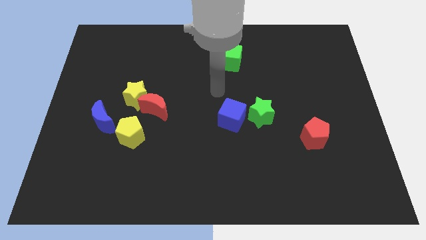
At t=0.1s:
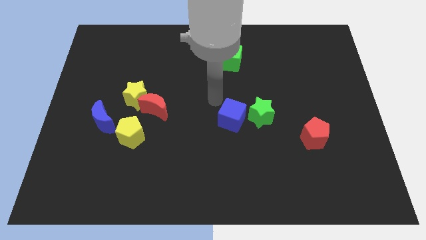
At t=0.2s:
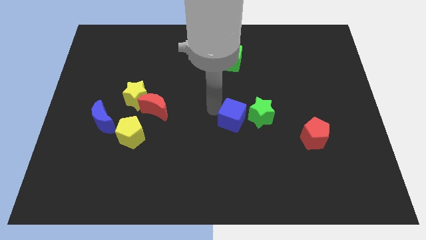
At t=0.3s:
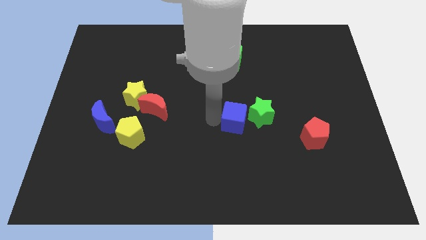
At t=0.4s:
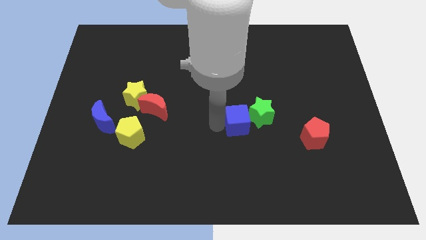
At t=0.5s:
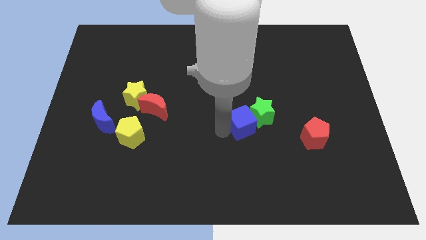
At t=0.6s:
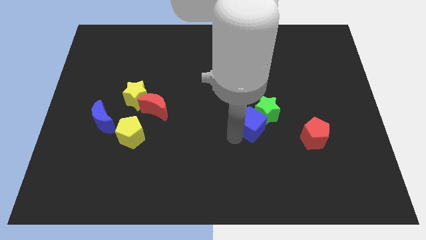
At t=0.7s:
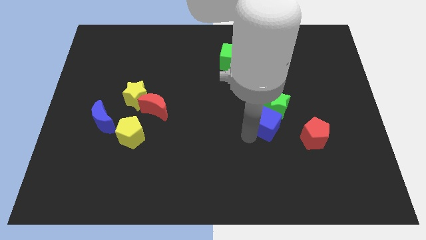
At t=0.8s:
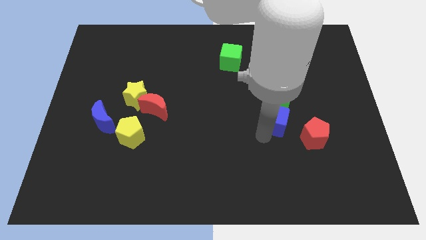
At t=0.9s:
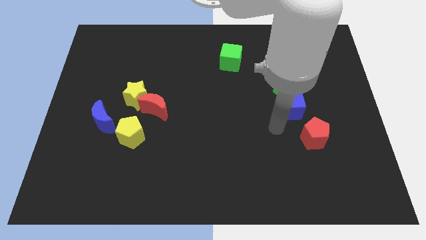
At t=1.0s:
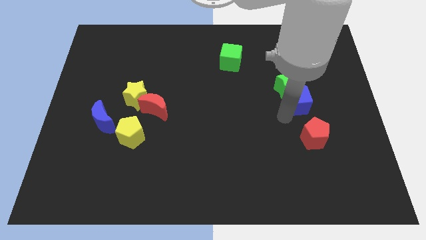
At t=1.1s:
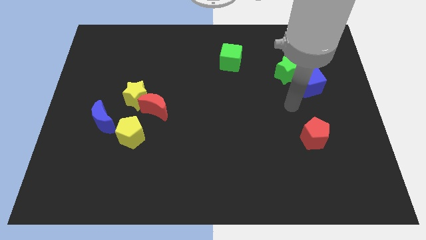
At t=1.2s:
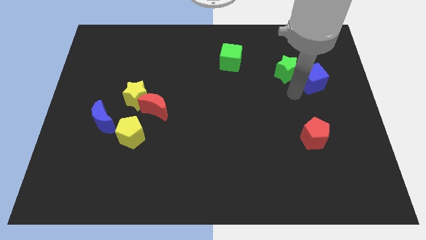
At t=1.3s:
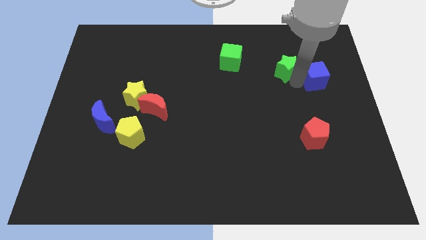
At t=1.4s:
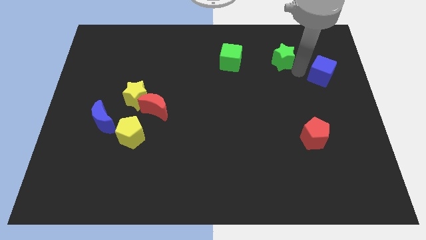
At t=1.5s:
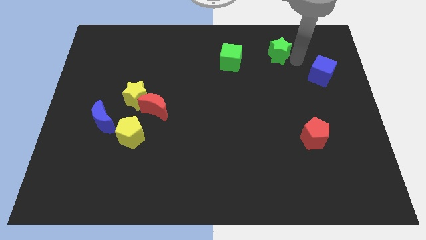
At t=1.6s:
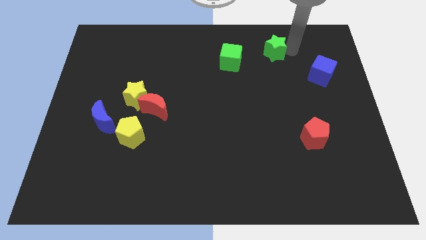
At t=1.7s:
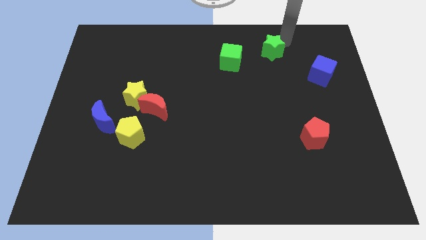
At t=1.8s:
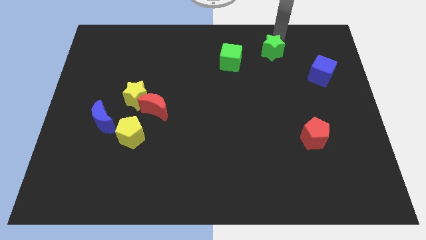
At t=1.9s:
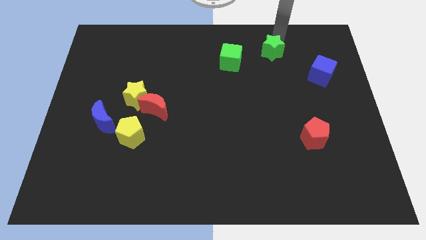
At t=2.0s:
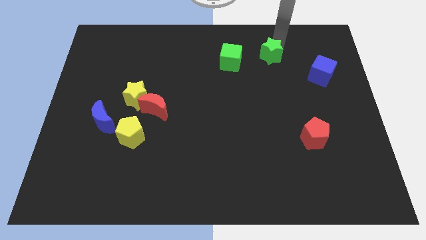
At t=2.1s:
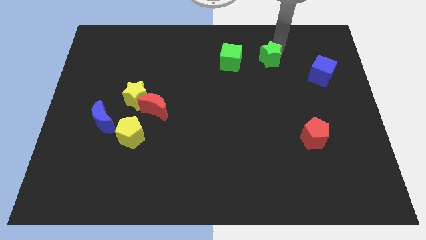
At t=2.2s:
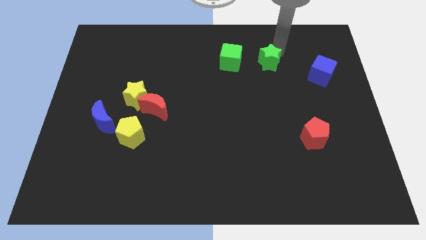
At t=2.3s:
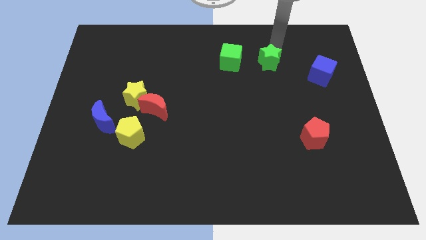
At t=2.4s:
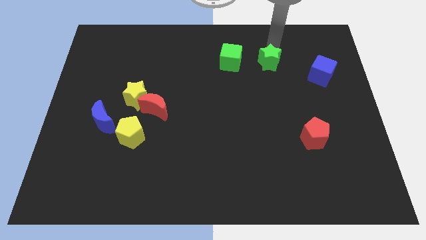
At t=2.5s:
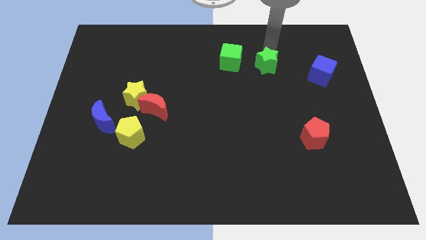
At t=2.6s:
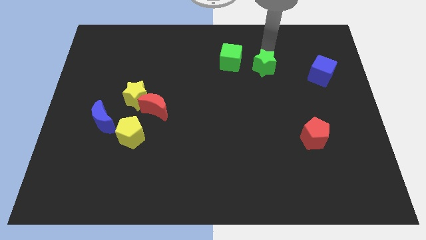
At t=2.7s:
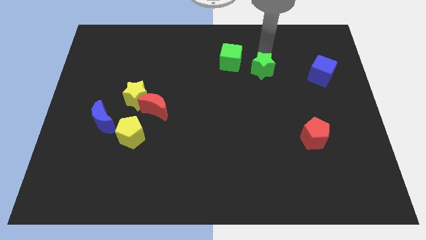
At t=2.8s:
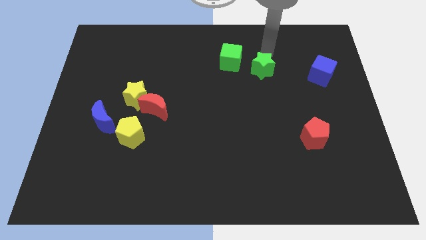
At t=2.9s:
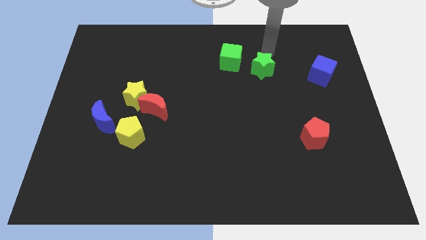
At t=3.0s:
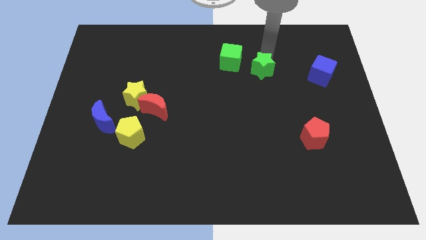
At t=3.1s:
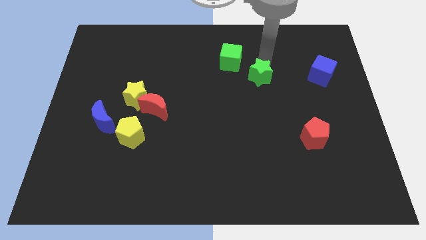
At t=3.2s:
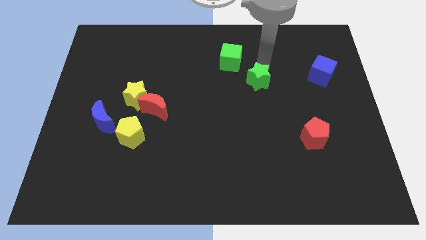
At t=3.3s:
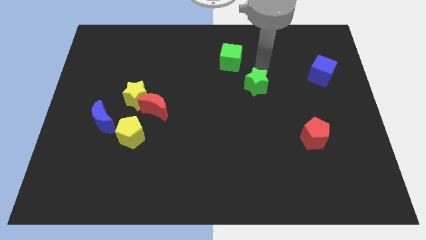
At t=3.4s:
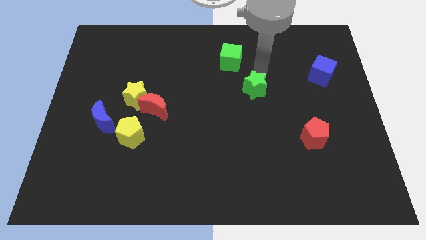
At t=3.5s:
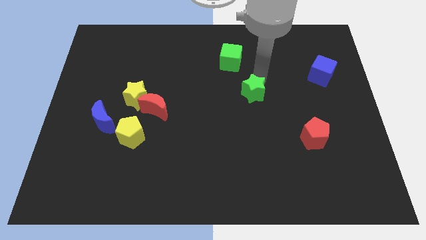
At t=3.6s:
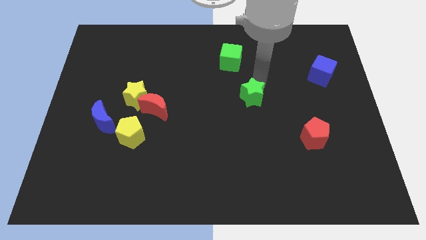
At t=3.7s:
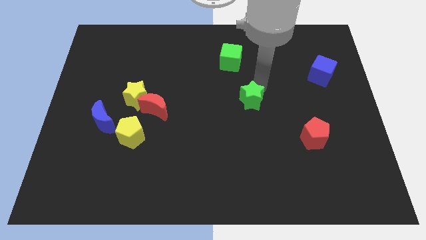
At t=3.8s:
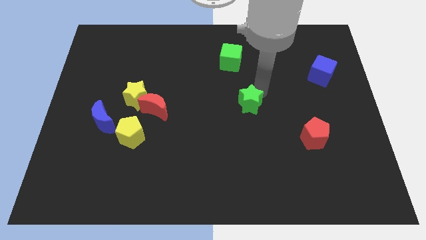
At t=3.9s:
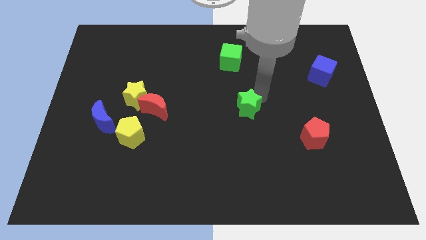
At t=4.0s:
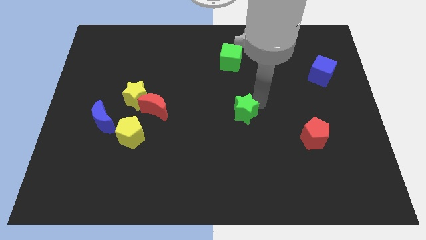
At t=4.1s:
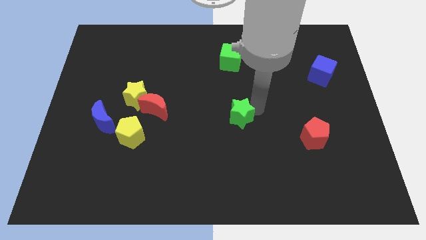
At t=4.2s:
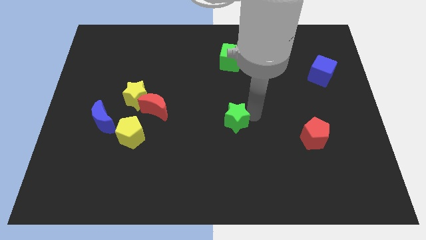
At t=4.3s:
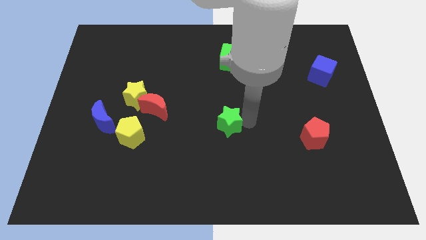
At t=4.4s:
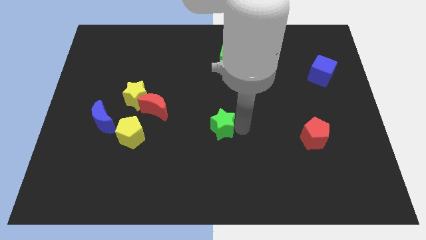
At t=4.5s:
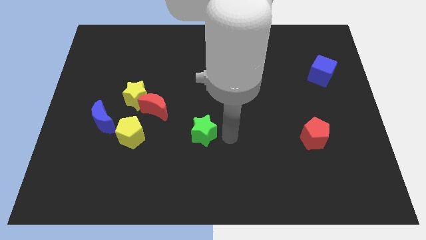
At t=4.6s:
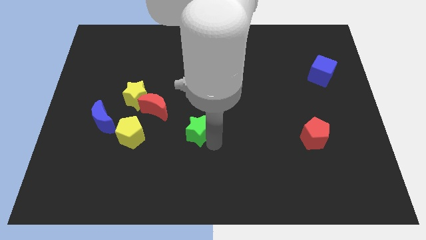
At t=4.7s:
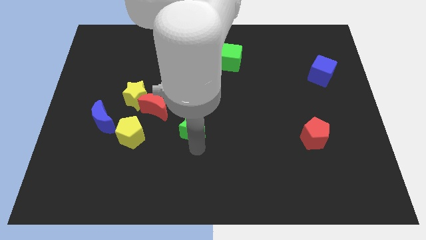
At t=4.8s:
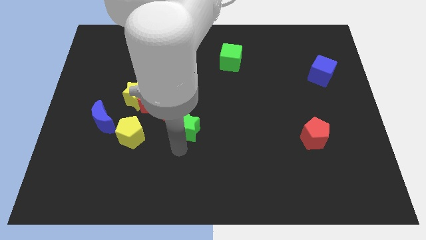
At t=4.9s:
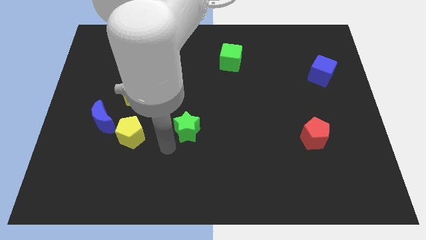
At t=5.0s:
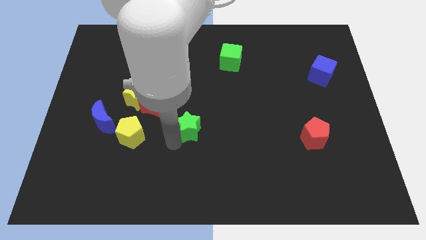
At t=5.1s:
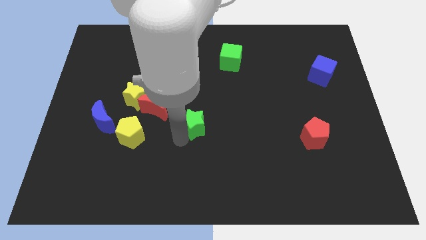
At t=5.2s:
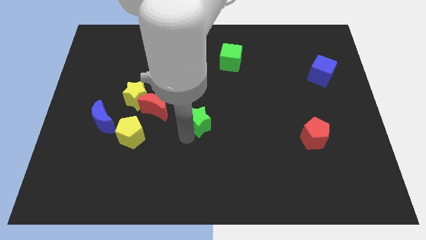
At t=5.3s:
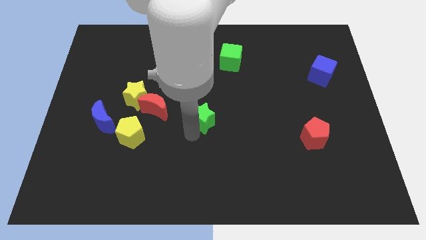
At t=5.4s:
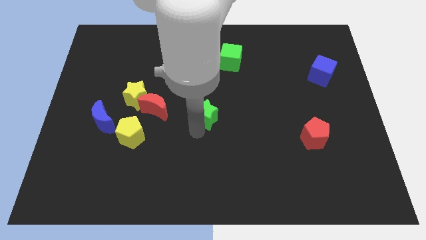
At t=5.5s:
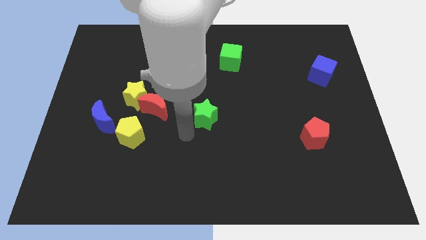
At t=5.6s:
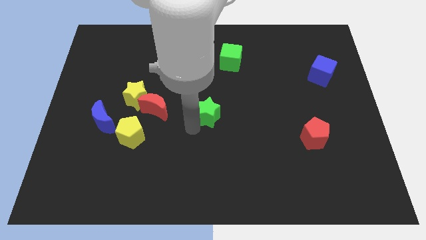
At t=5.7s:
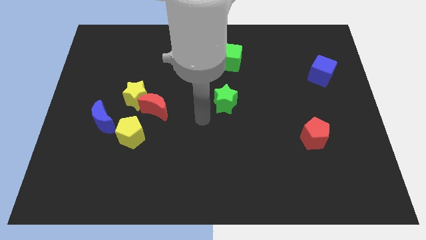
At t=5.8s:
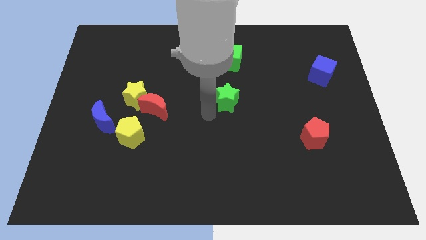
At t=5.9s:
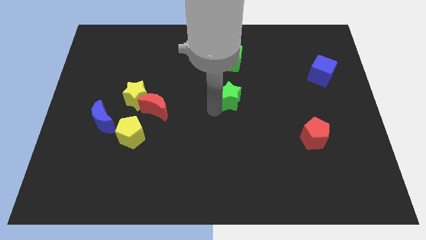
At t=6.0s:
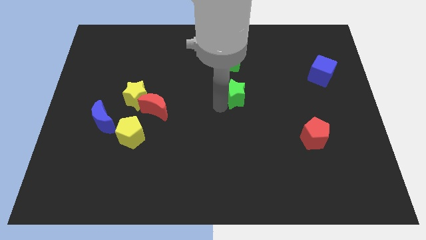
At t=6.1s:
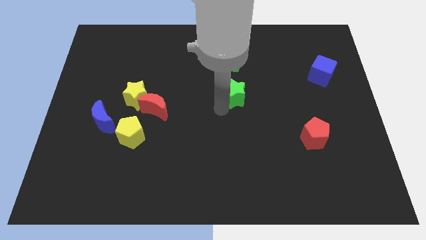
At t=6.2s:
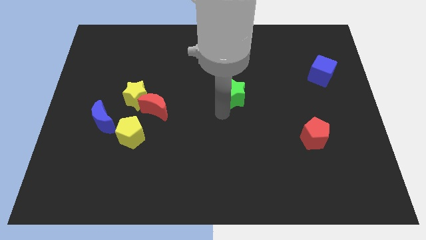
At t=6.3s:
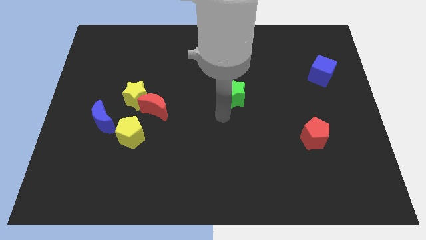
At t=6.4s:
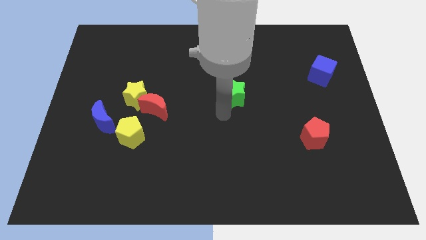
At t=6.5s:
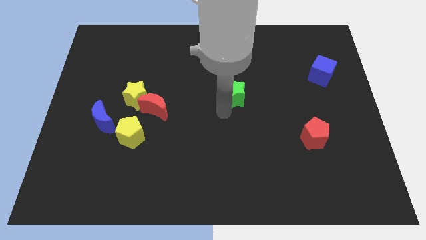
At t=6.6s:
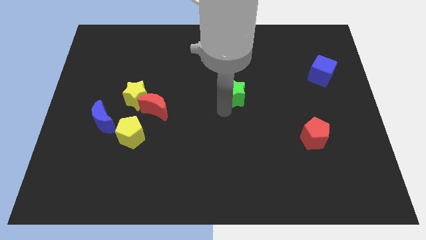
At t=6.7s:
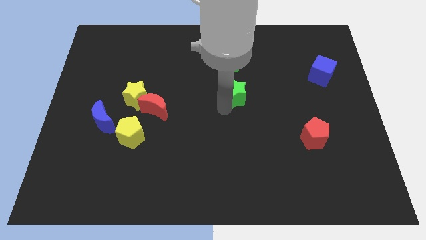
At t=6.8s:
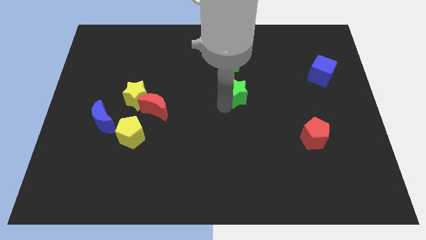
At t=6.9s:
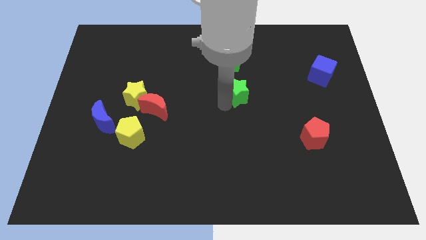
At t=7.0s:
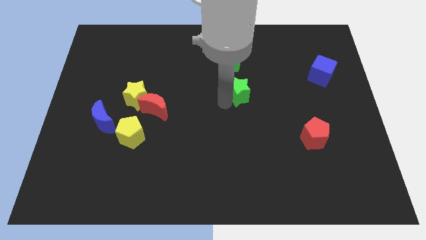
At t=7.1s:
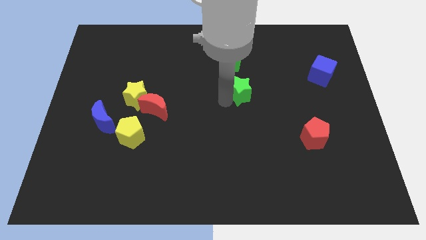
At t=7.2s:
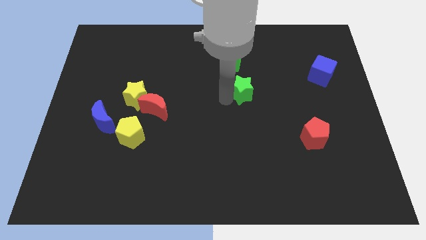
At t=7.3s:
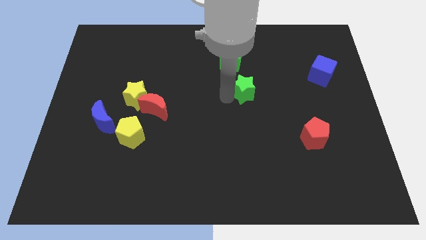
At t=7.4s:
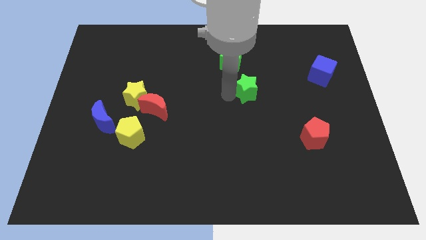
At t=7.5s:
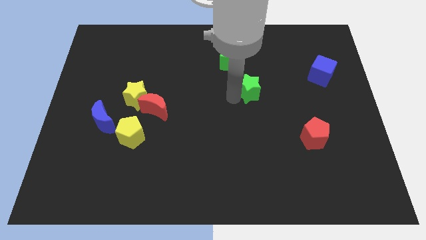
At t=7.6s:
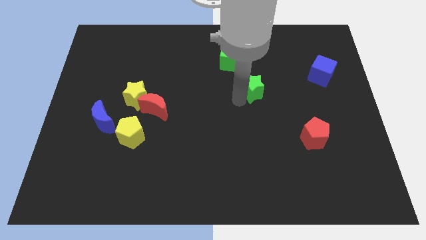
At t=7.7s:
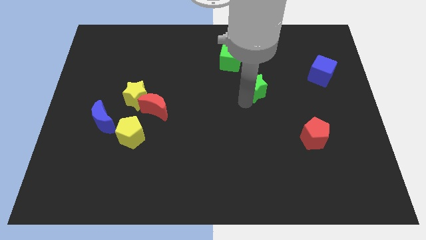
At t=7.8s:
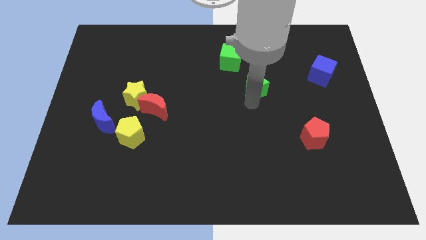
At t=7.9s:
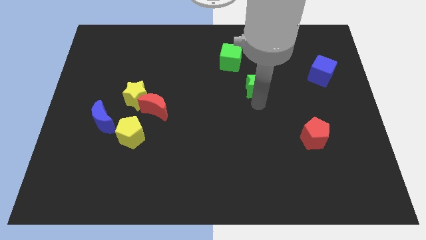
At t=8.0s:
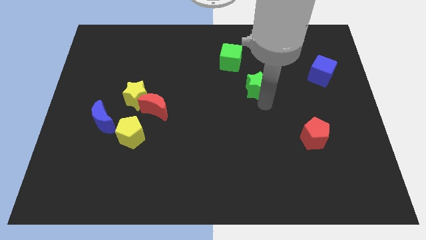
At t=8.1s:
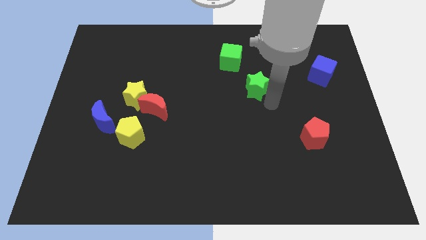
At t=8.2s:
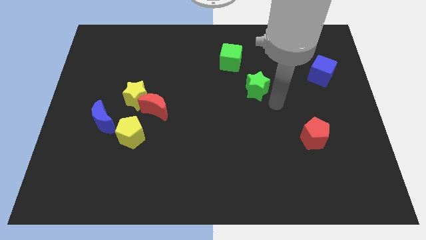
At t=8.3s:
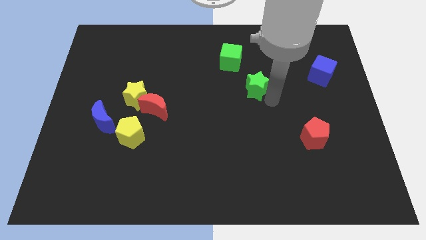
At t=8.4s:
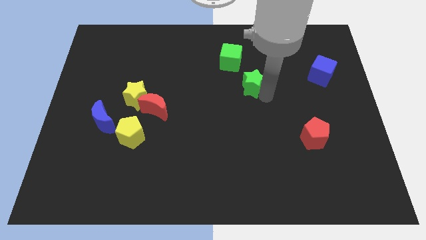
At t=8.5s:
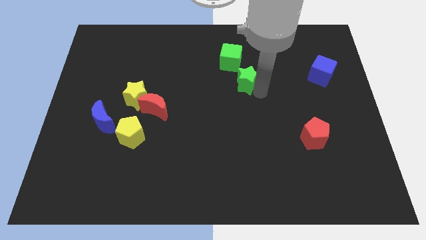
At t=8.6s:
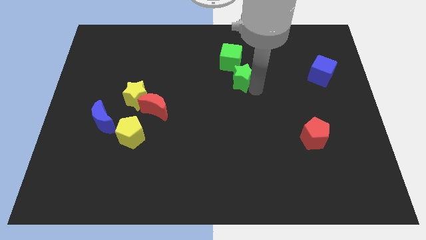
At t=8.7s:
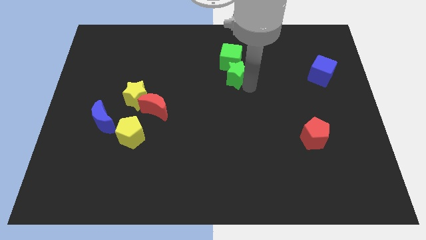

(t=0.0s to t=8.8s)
push the green star close to the green cube
